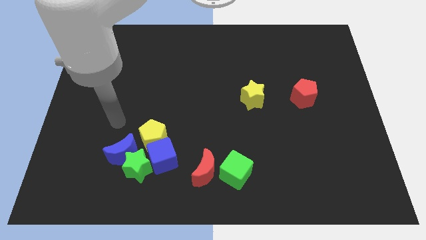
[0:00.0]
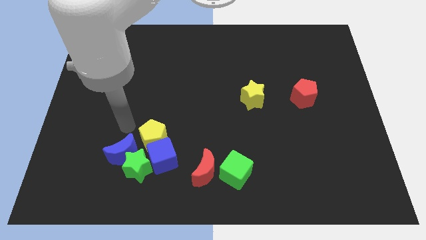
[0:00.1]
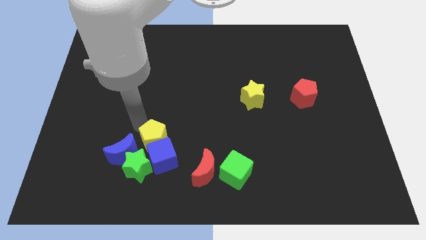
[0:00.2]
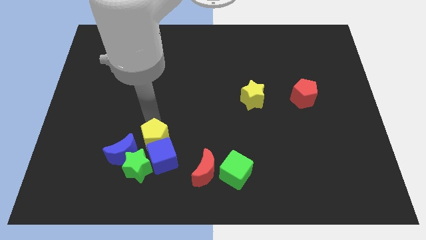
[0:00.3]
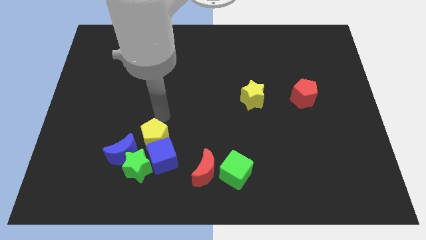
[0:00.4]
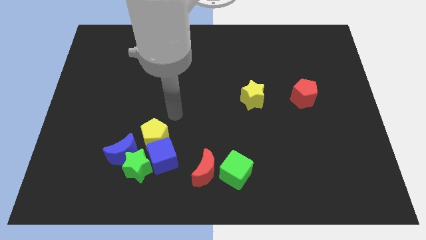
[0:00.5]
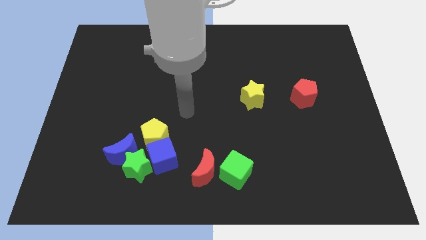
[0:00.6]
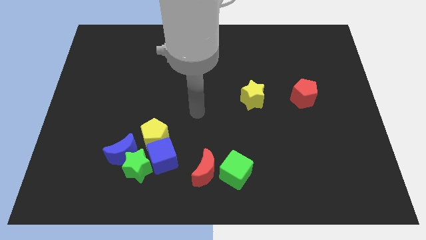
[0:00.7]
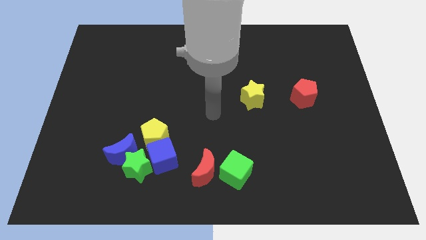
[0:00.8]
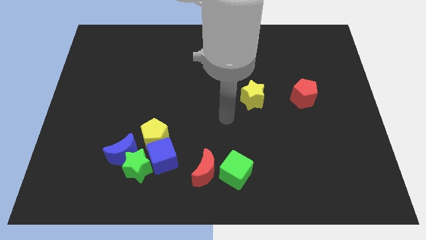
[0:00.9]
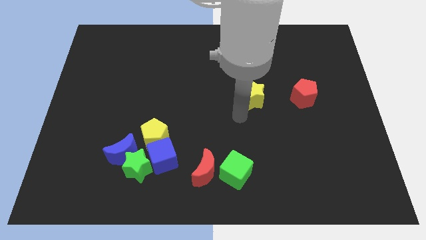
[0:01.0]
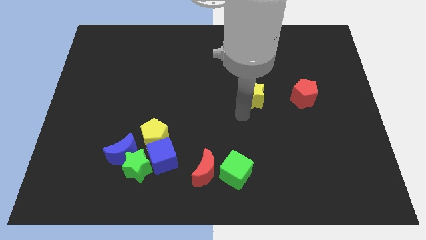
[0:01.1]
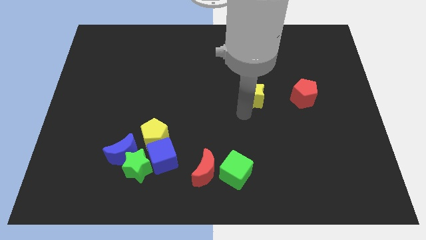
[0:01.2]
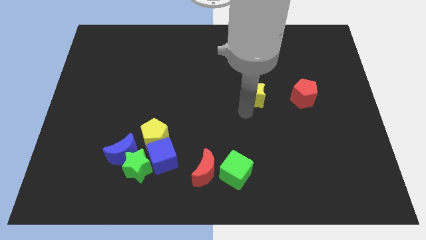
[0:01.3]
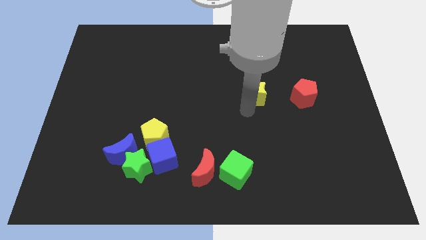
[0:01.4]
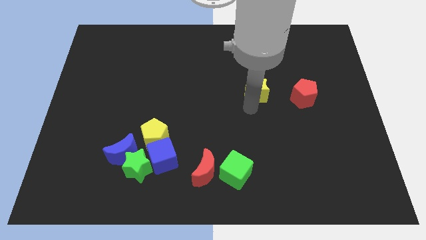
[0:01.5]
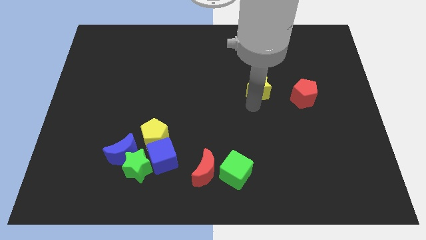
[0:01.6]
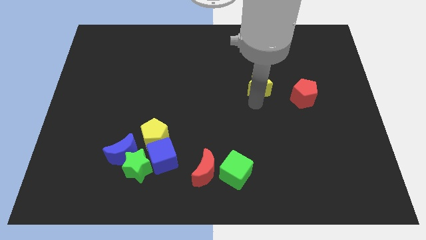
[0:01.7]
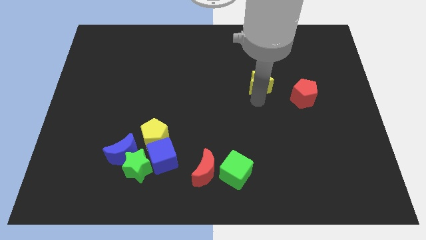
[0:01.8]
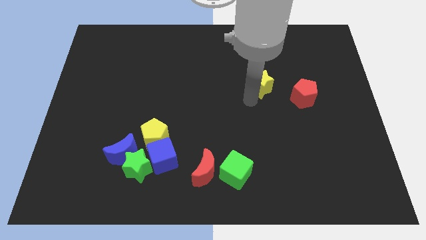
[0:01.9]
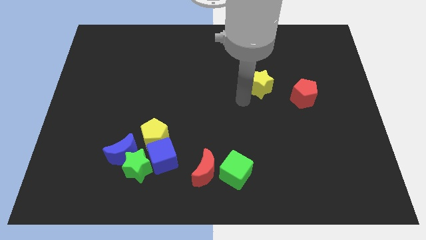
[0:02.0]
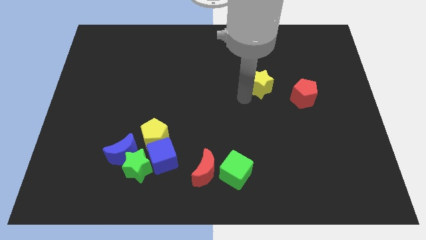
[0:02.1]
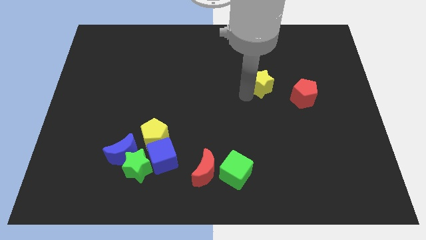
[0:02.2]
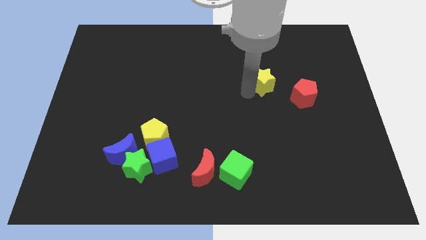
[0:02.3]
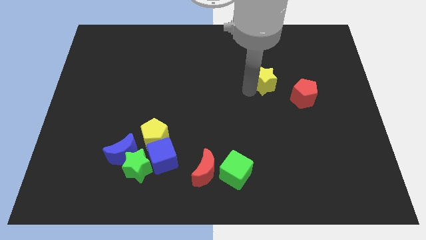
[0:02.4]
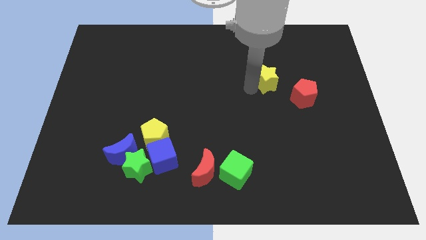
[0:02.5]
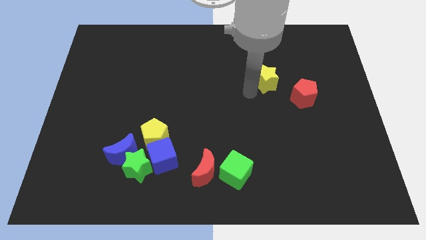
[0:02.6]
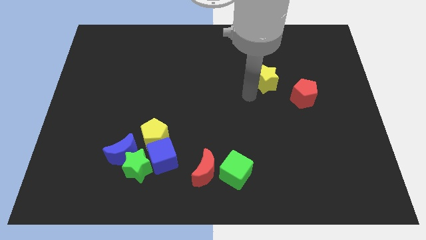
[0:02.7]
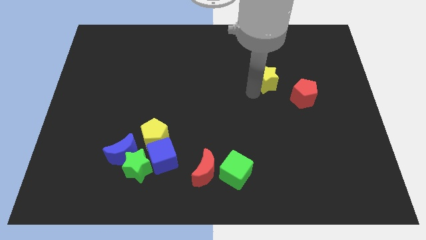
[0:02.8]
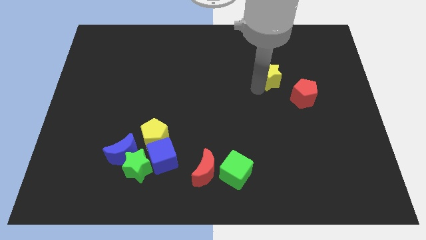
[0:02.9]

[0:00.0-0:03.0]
move the yellow star upwards and to the right diagonally a little

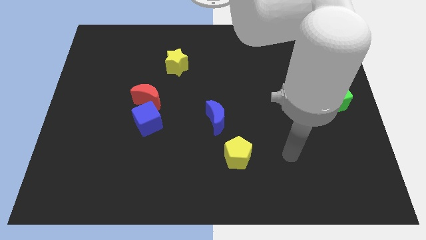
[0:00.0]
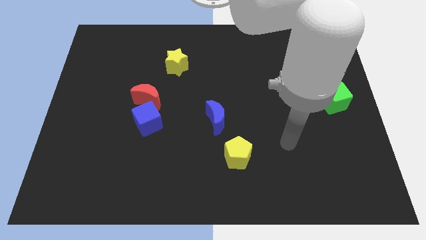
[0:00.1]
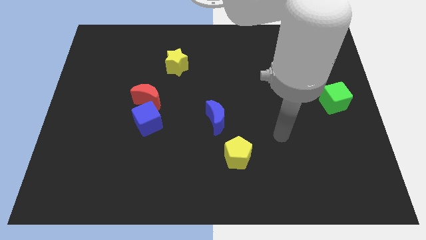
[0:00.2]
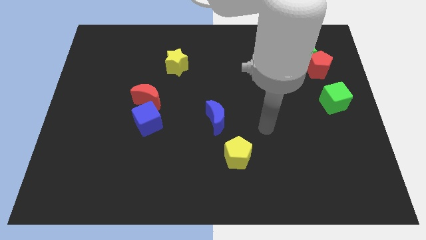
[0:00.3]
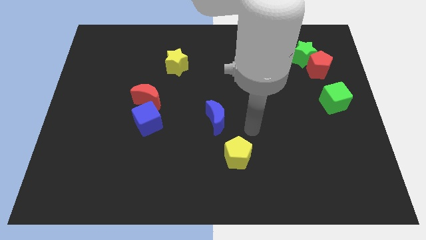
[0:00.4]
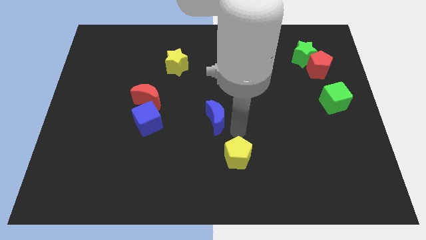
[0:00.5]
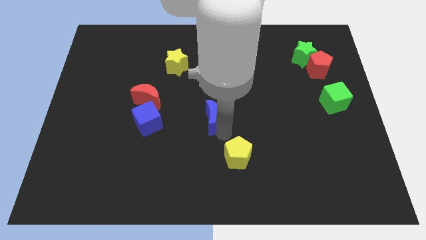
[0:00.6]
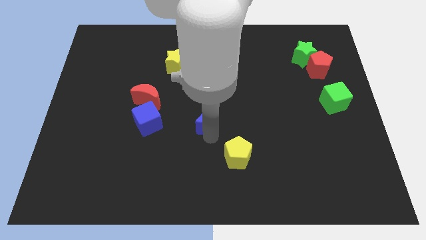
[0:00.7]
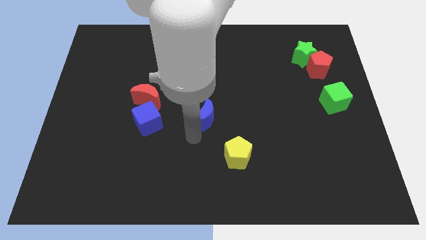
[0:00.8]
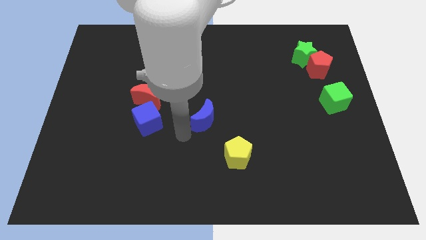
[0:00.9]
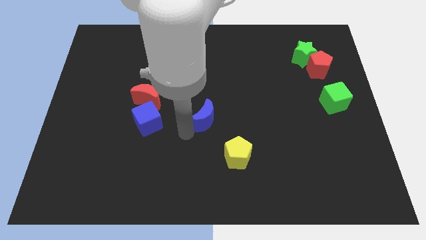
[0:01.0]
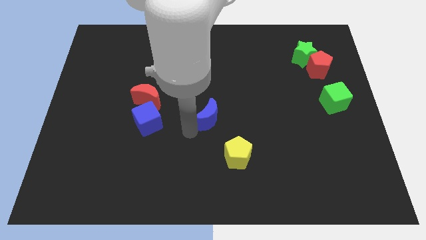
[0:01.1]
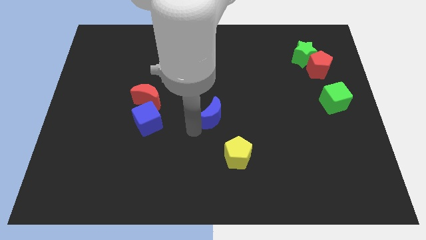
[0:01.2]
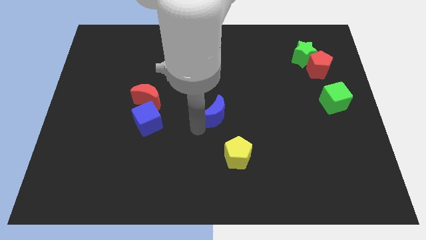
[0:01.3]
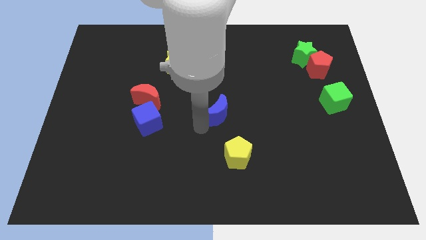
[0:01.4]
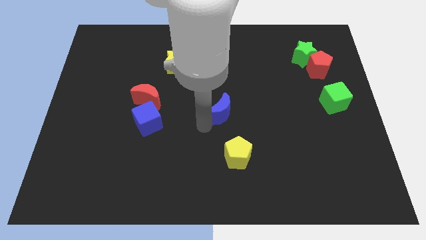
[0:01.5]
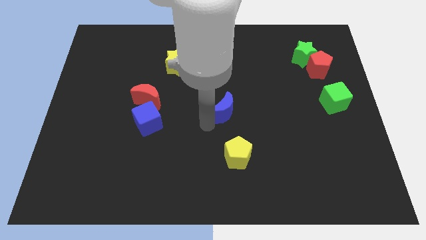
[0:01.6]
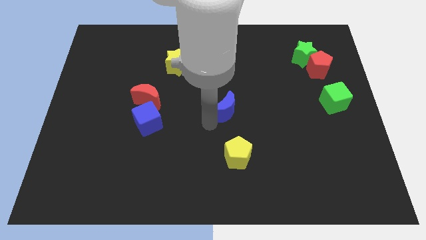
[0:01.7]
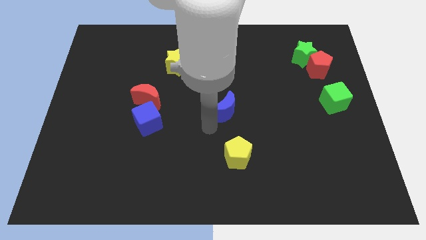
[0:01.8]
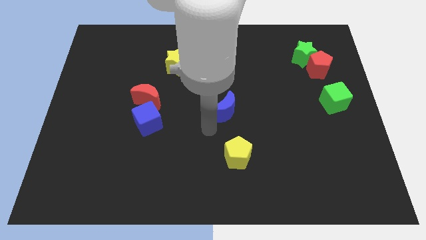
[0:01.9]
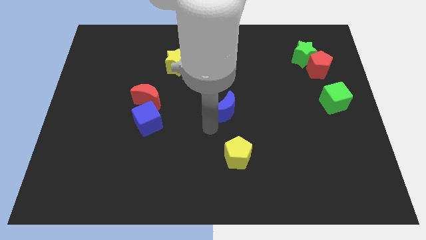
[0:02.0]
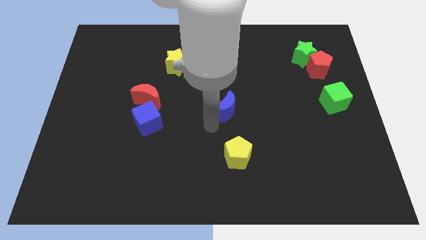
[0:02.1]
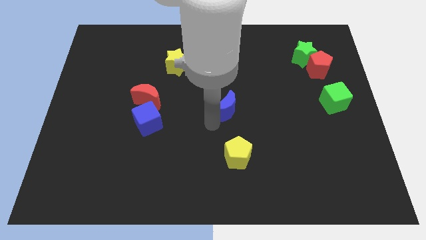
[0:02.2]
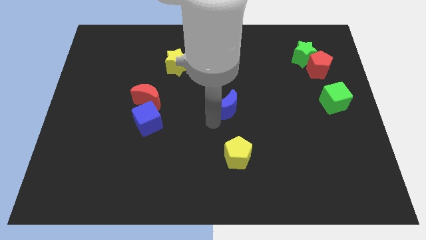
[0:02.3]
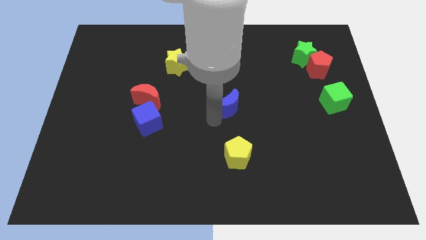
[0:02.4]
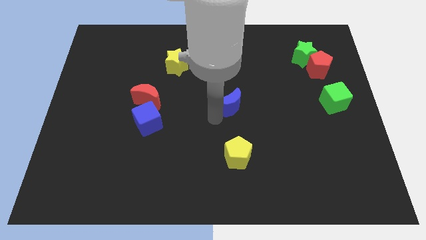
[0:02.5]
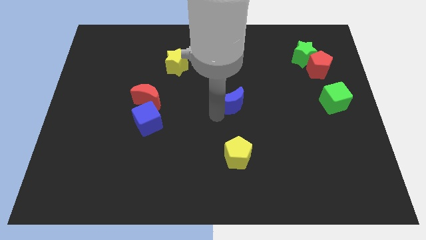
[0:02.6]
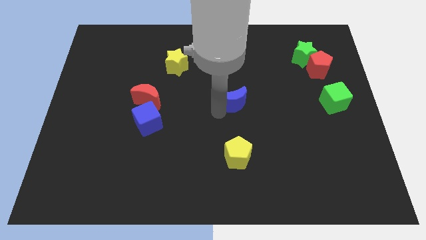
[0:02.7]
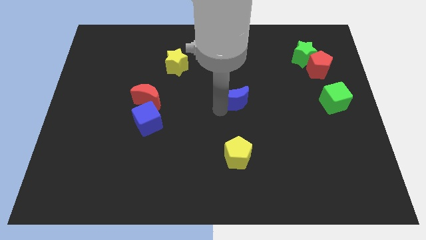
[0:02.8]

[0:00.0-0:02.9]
slide the blue moon upwards and to the right somewhat

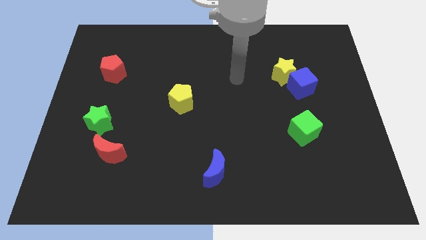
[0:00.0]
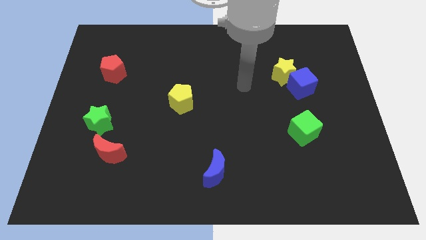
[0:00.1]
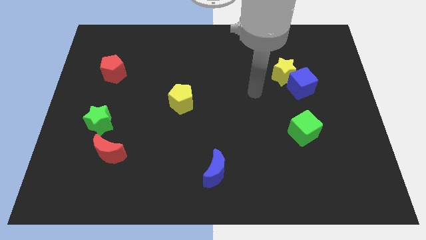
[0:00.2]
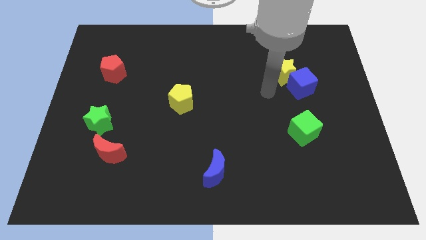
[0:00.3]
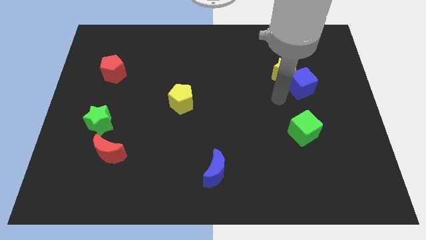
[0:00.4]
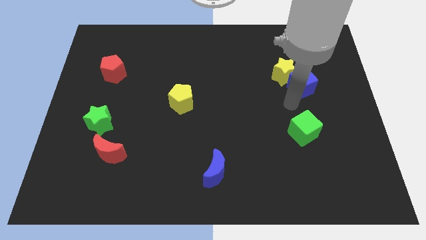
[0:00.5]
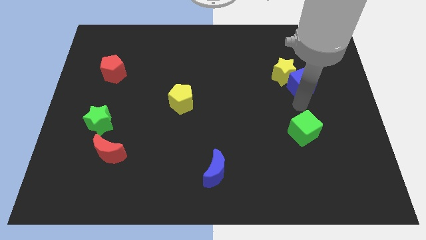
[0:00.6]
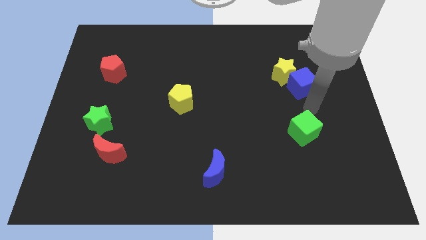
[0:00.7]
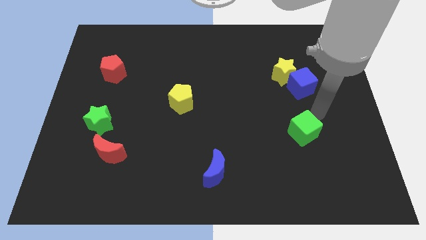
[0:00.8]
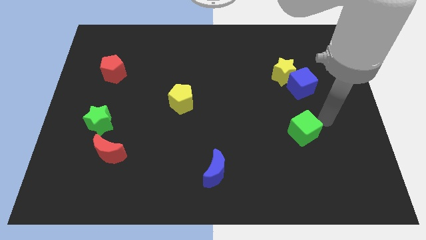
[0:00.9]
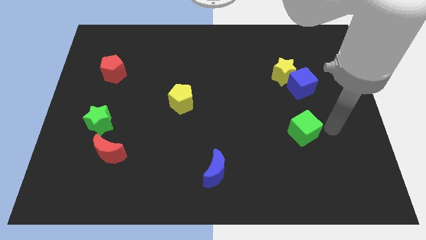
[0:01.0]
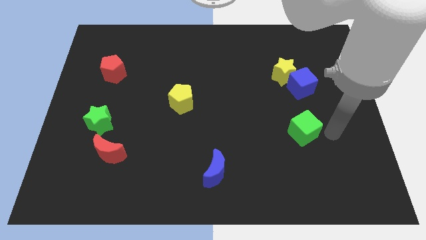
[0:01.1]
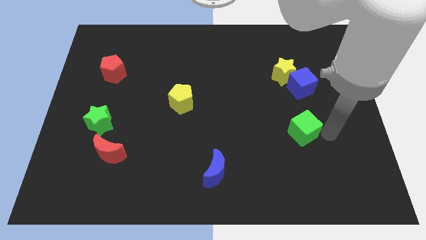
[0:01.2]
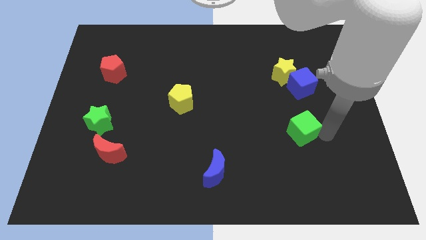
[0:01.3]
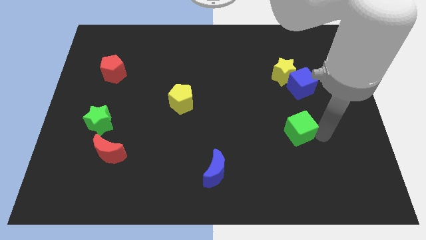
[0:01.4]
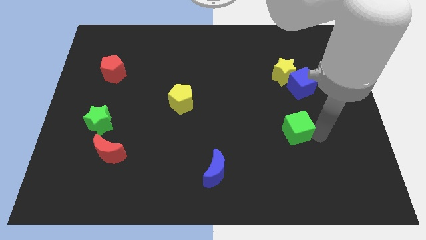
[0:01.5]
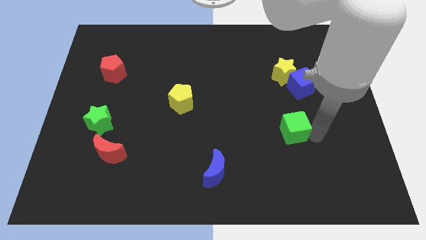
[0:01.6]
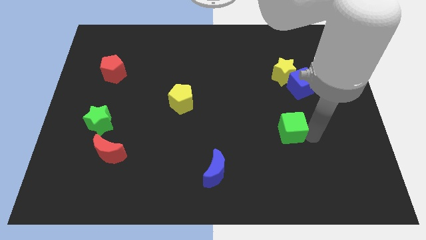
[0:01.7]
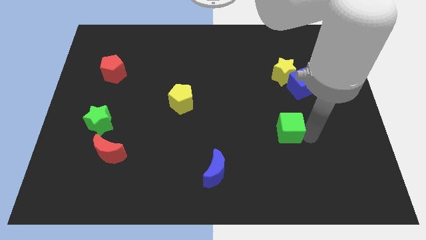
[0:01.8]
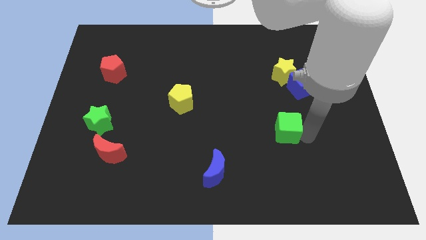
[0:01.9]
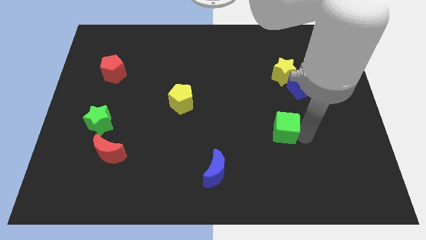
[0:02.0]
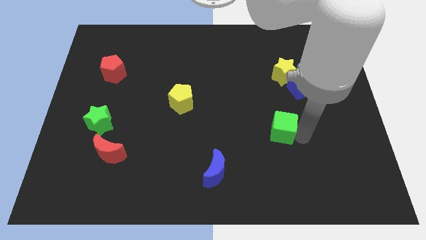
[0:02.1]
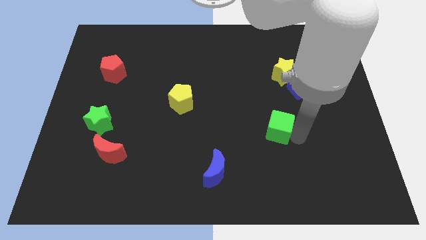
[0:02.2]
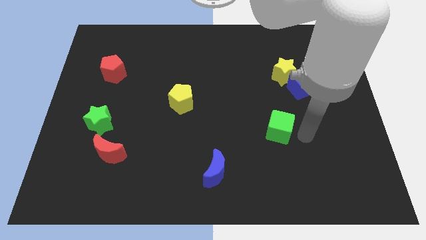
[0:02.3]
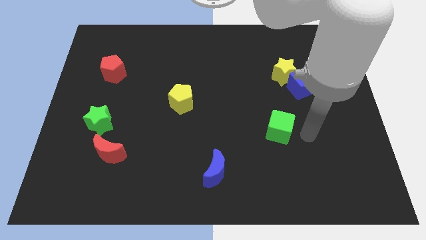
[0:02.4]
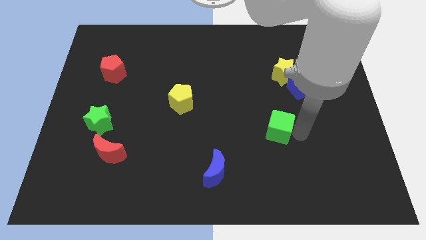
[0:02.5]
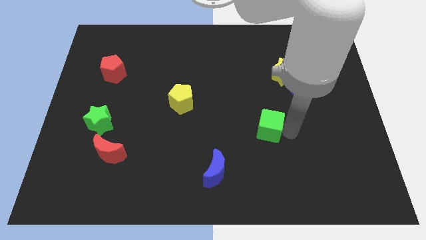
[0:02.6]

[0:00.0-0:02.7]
slightly push the green cube to the left
